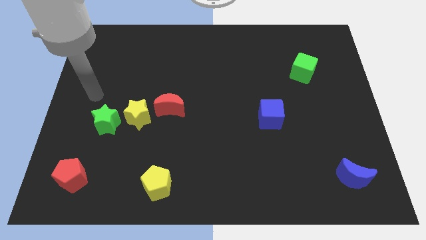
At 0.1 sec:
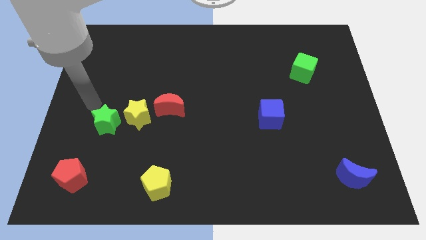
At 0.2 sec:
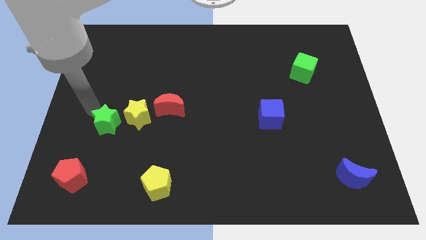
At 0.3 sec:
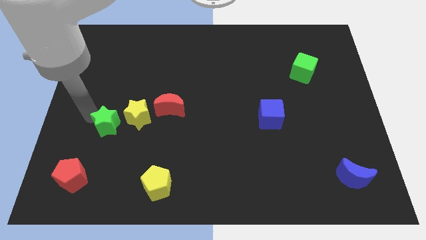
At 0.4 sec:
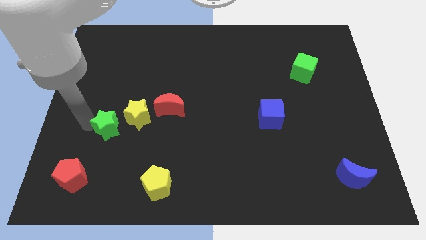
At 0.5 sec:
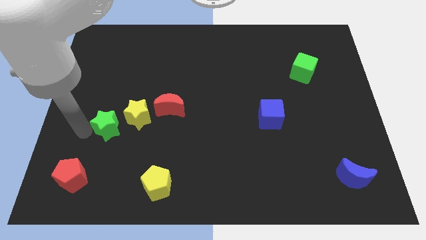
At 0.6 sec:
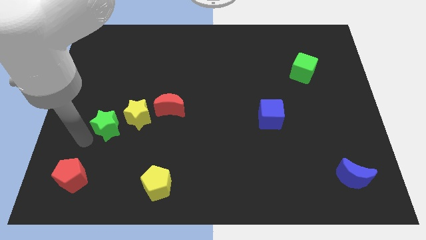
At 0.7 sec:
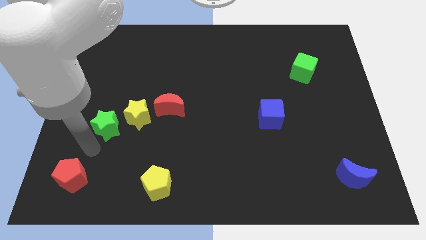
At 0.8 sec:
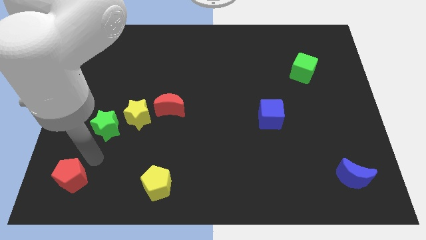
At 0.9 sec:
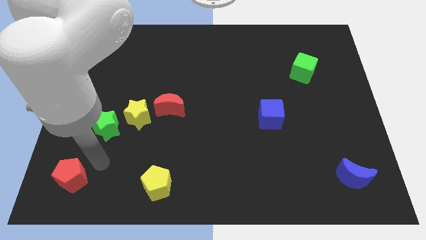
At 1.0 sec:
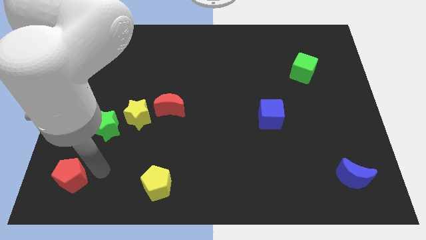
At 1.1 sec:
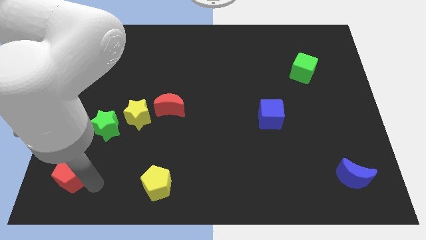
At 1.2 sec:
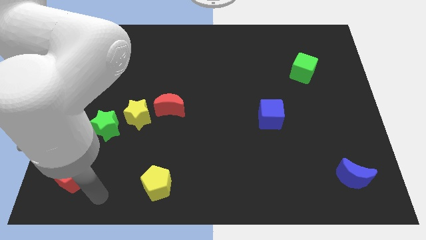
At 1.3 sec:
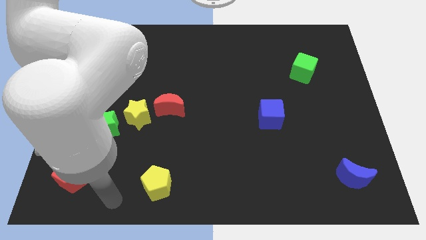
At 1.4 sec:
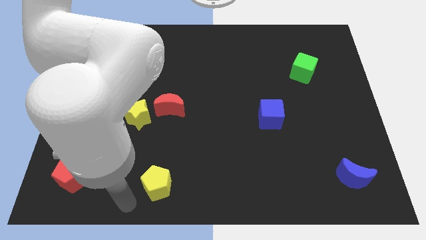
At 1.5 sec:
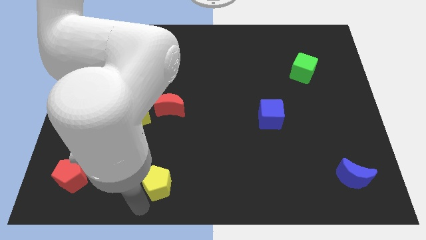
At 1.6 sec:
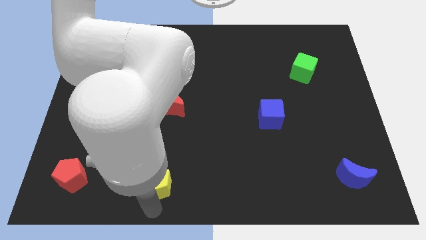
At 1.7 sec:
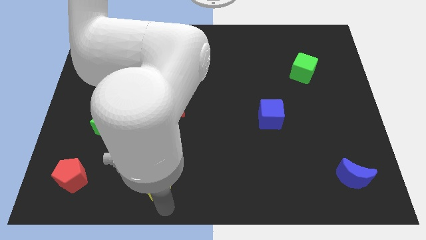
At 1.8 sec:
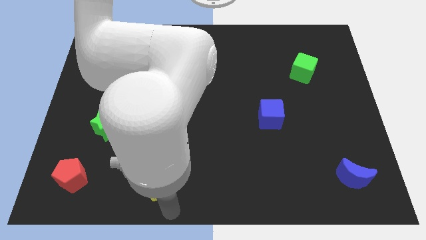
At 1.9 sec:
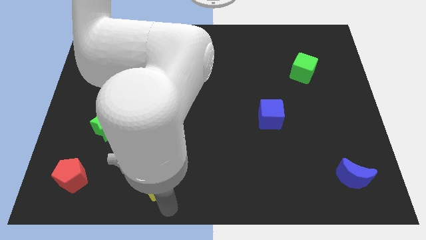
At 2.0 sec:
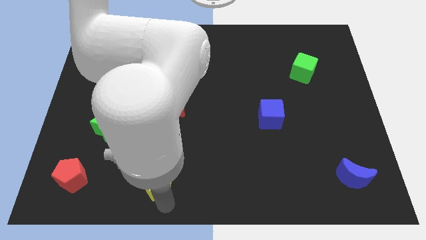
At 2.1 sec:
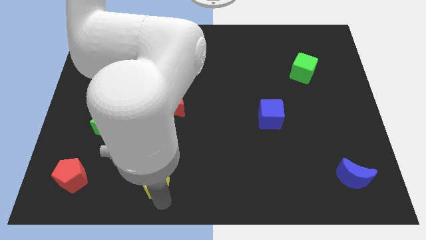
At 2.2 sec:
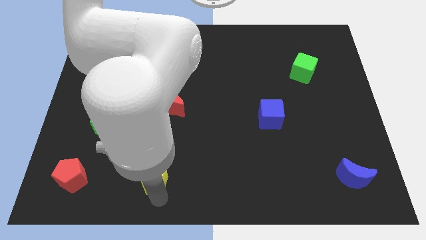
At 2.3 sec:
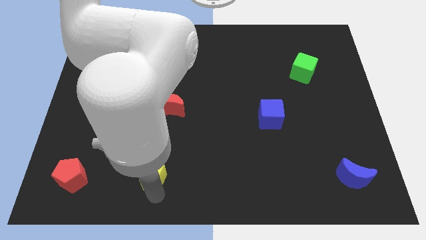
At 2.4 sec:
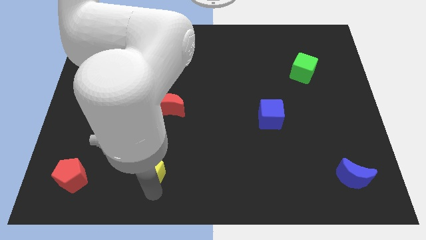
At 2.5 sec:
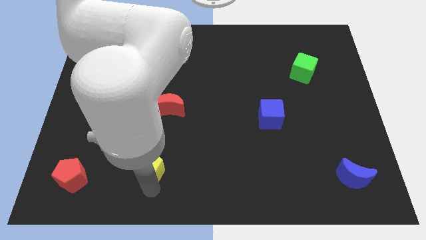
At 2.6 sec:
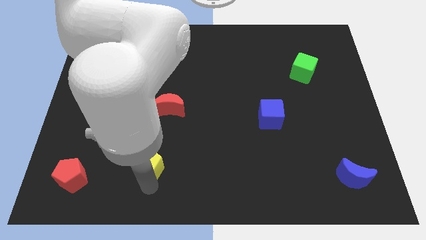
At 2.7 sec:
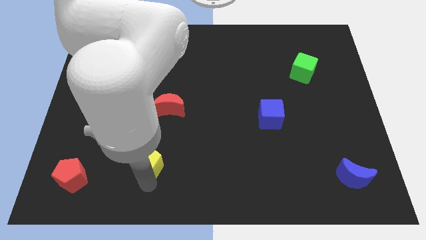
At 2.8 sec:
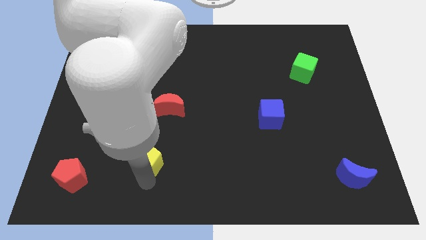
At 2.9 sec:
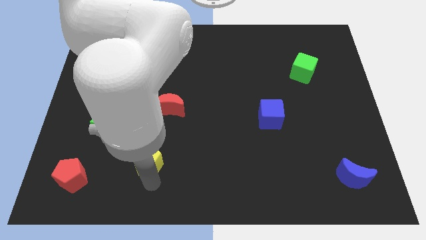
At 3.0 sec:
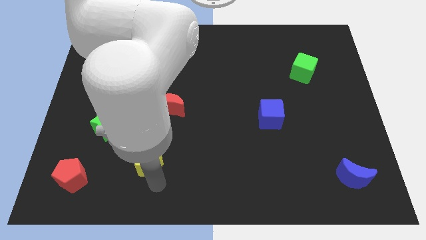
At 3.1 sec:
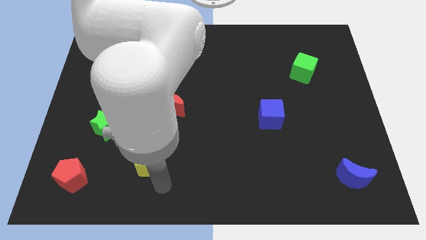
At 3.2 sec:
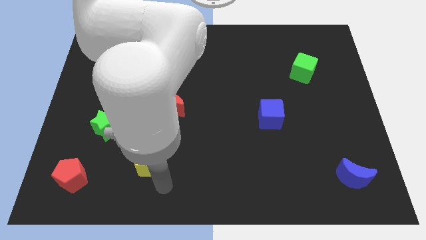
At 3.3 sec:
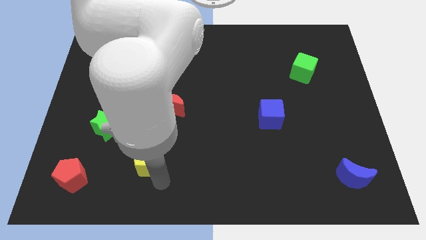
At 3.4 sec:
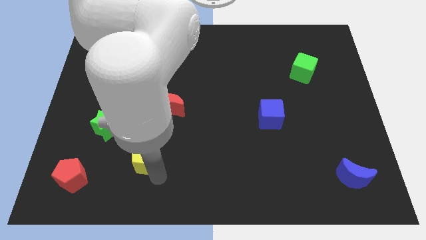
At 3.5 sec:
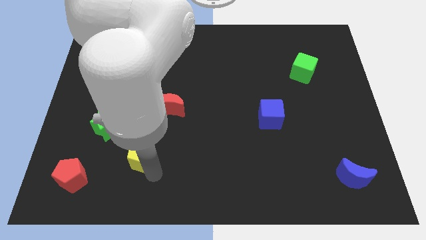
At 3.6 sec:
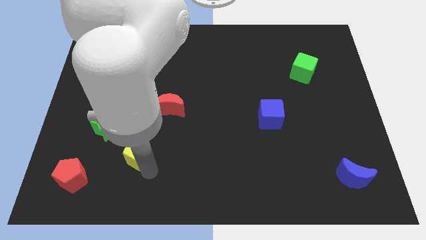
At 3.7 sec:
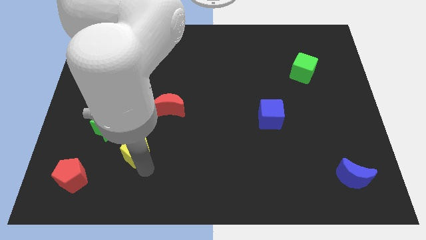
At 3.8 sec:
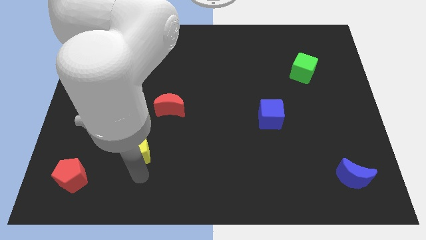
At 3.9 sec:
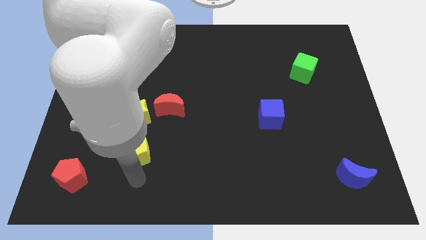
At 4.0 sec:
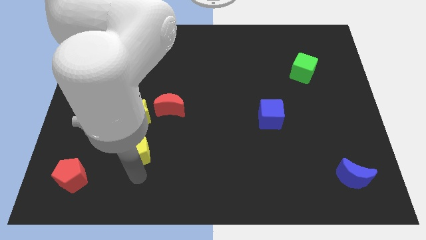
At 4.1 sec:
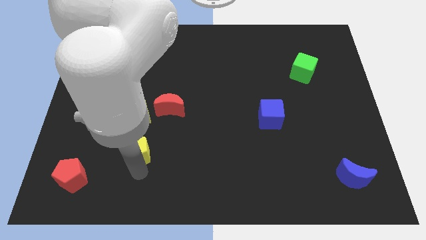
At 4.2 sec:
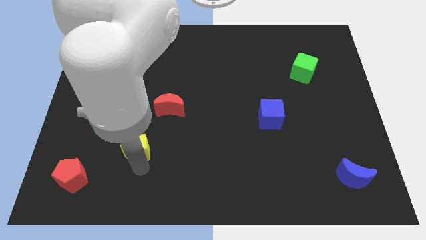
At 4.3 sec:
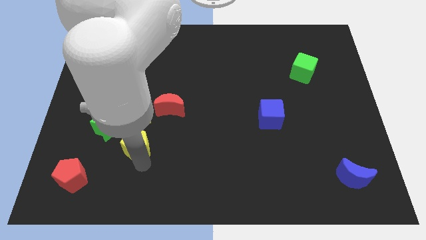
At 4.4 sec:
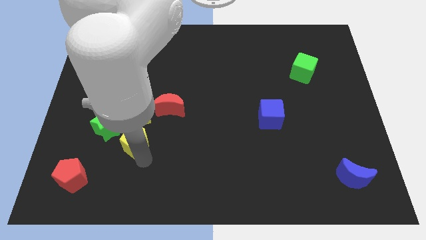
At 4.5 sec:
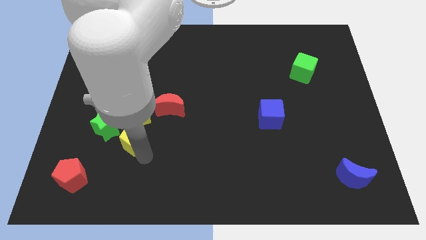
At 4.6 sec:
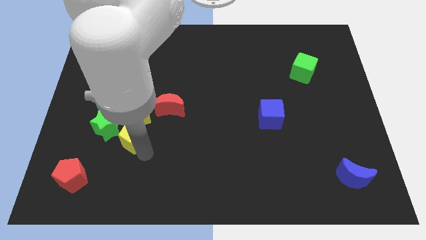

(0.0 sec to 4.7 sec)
push the yellow pentagon towards the yellow star

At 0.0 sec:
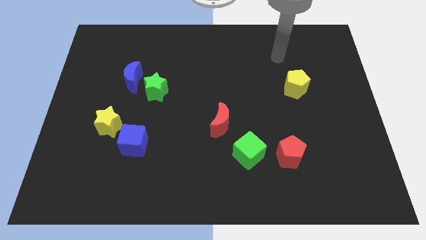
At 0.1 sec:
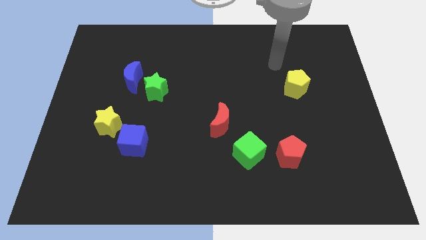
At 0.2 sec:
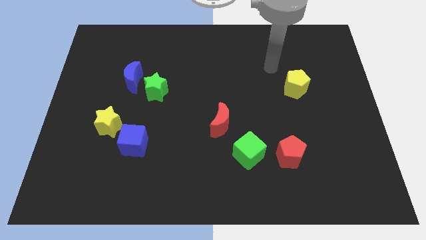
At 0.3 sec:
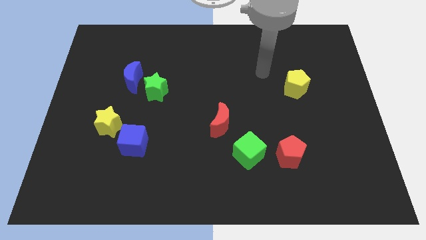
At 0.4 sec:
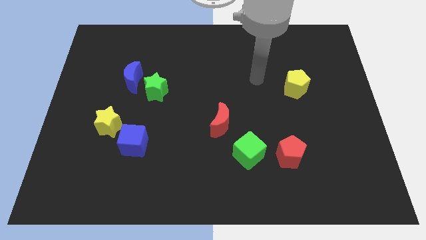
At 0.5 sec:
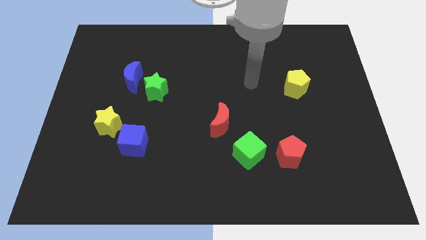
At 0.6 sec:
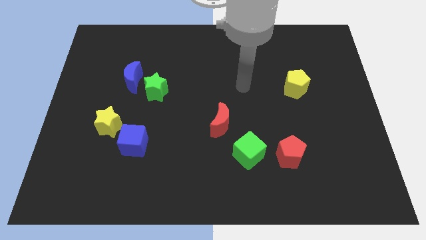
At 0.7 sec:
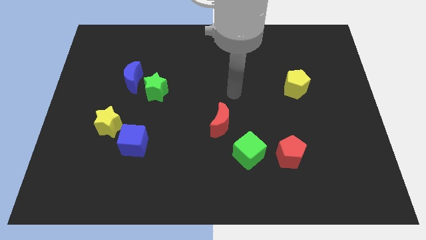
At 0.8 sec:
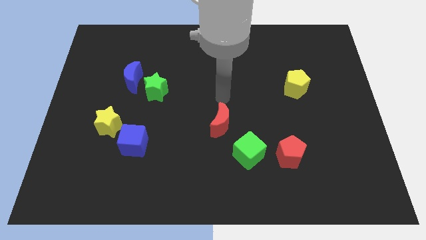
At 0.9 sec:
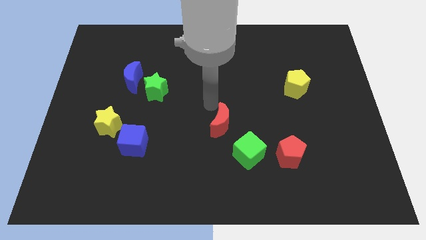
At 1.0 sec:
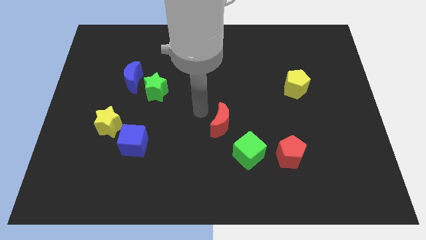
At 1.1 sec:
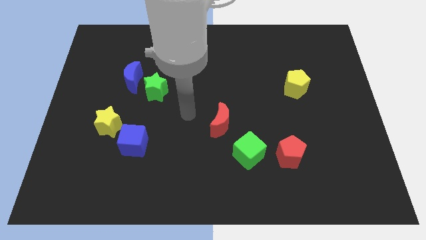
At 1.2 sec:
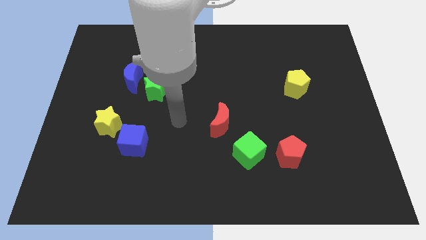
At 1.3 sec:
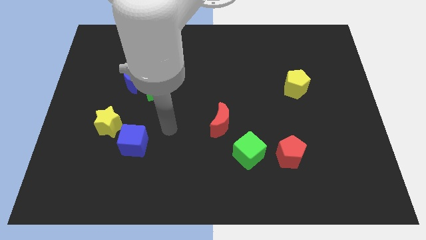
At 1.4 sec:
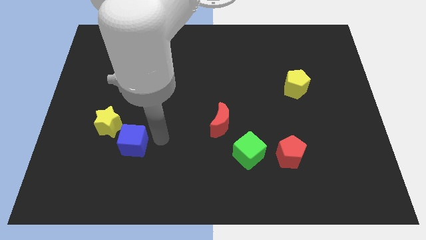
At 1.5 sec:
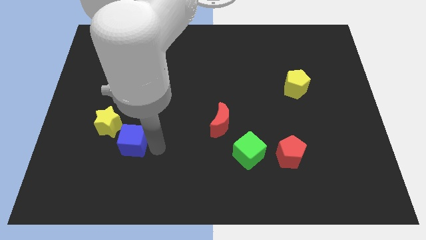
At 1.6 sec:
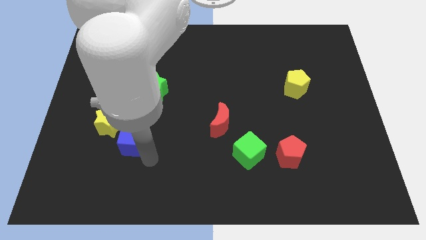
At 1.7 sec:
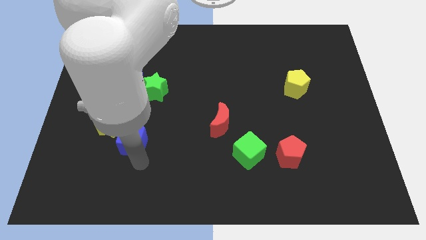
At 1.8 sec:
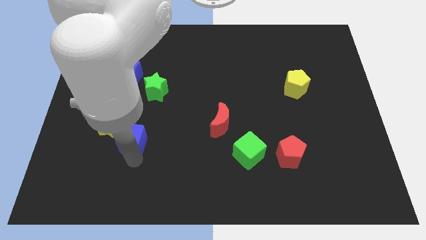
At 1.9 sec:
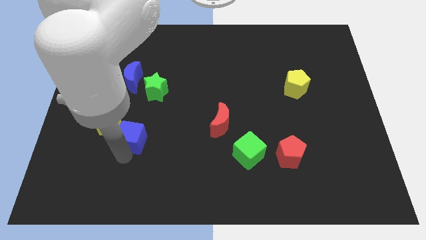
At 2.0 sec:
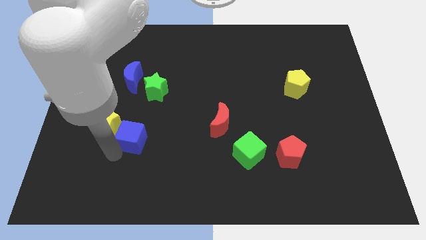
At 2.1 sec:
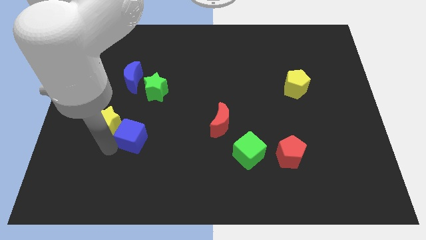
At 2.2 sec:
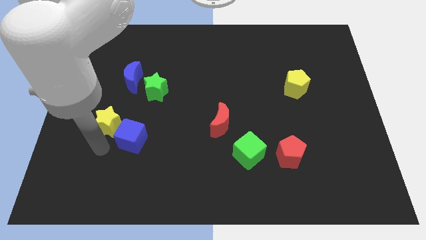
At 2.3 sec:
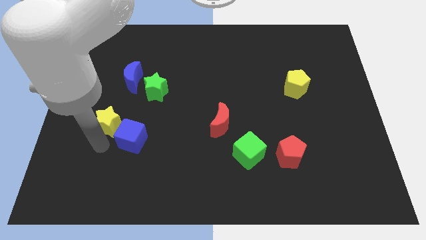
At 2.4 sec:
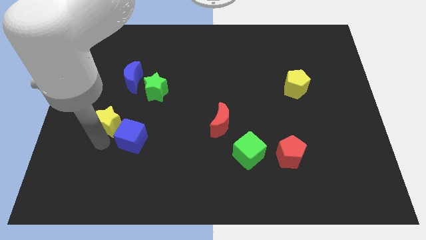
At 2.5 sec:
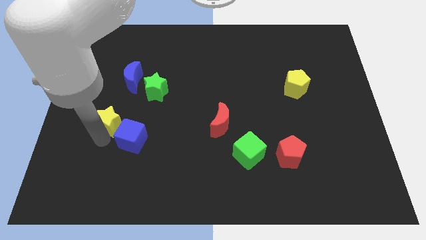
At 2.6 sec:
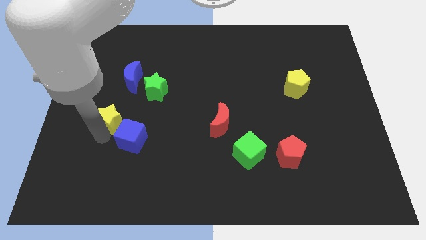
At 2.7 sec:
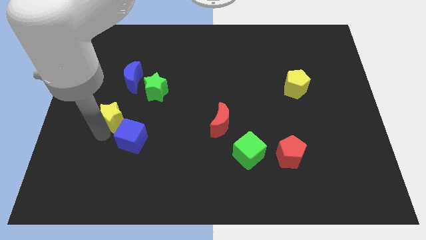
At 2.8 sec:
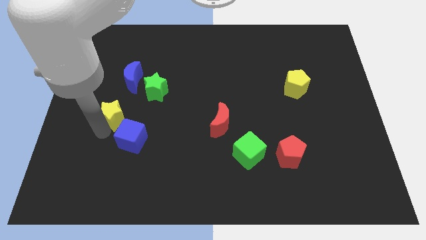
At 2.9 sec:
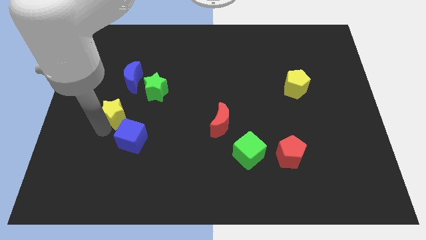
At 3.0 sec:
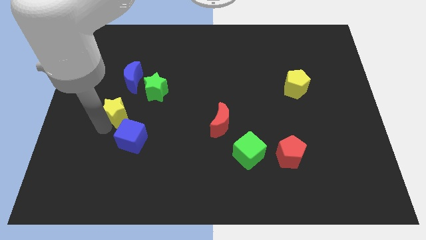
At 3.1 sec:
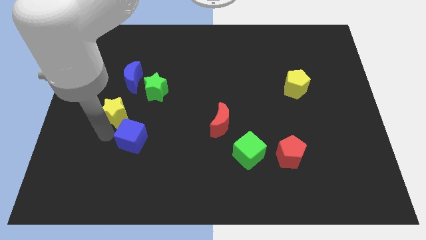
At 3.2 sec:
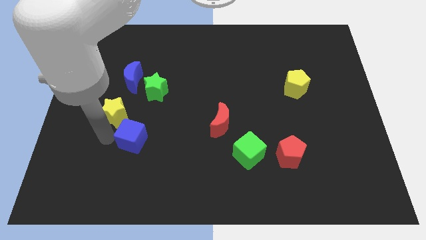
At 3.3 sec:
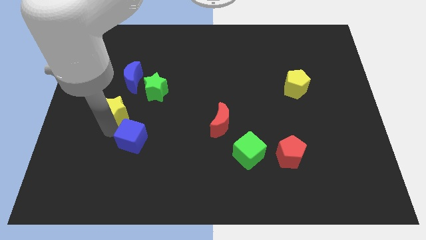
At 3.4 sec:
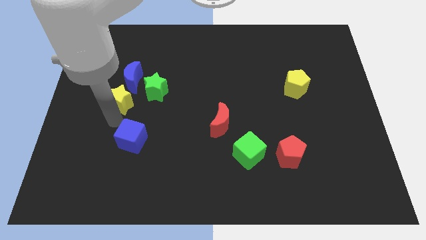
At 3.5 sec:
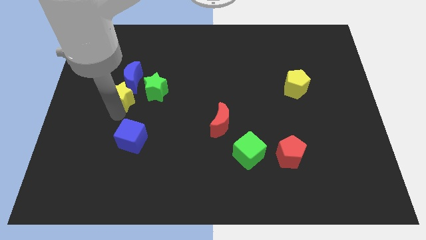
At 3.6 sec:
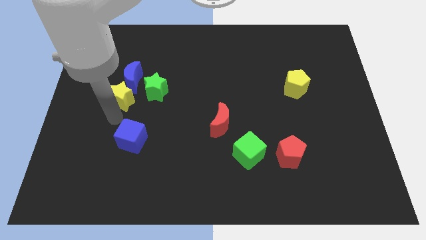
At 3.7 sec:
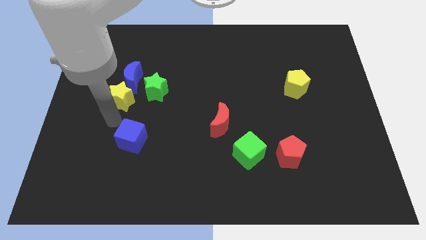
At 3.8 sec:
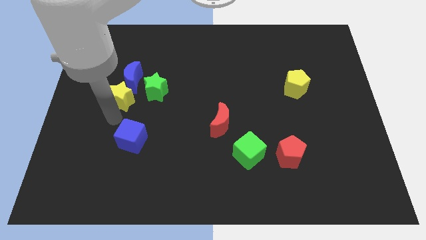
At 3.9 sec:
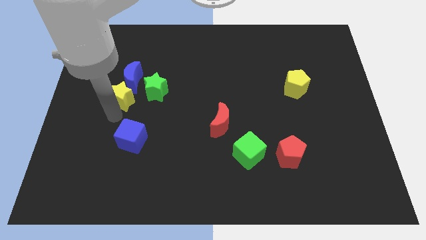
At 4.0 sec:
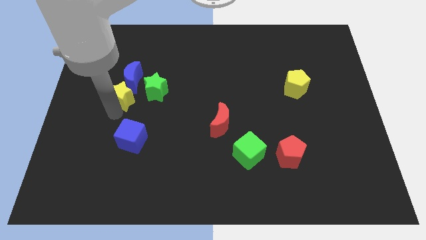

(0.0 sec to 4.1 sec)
slide the yellow star close to the blue moon
